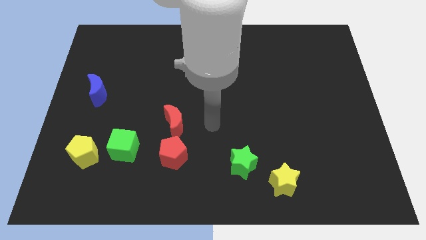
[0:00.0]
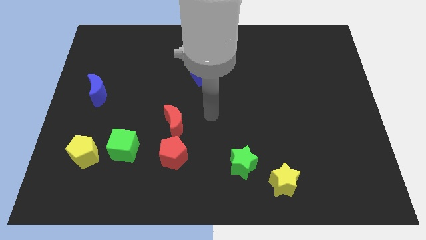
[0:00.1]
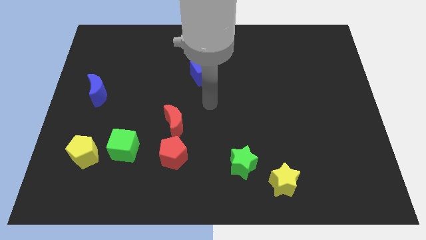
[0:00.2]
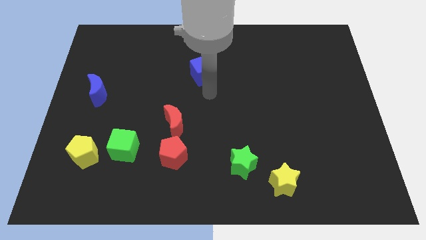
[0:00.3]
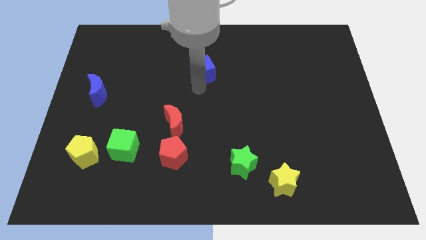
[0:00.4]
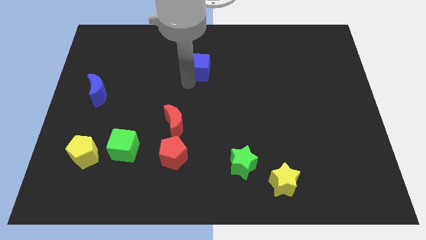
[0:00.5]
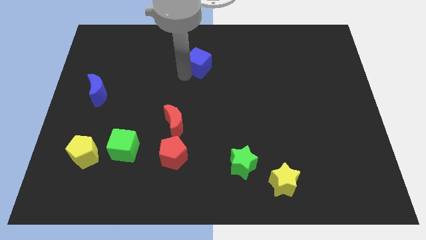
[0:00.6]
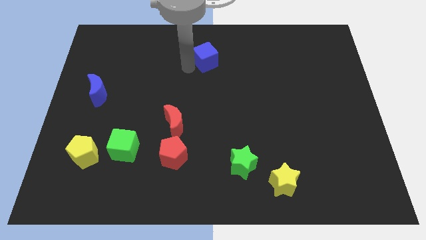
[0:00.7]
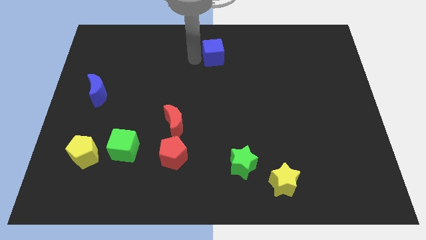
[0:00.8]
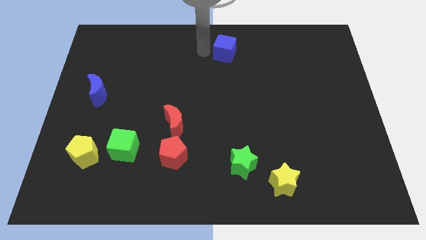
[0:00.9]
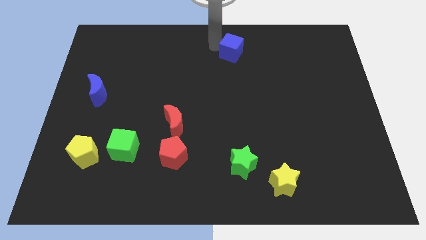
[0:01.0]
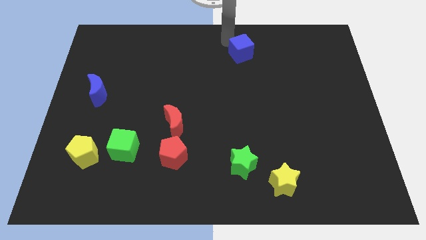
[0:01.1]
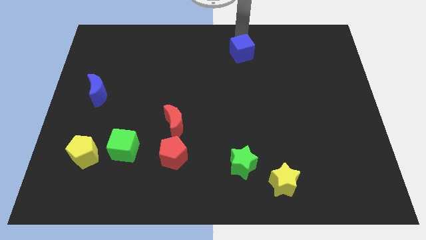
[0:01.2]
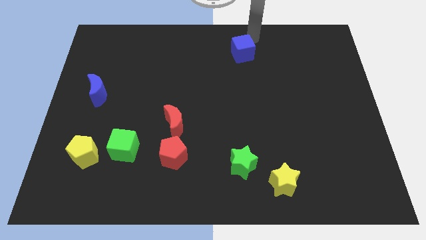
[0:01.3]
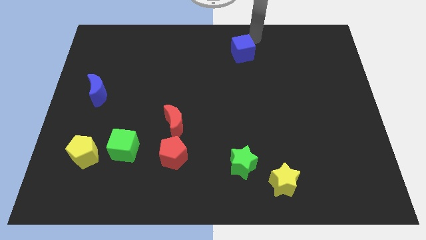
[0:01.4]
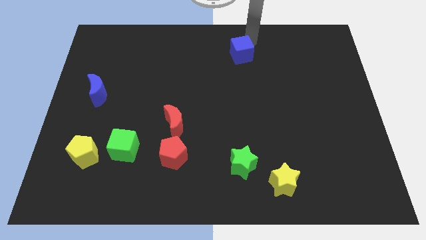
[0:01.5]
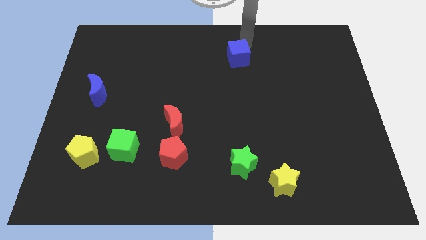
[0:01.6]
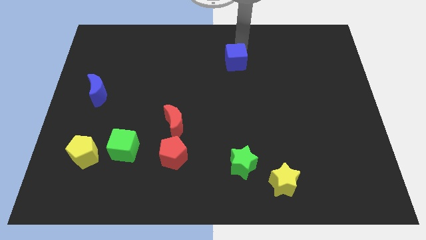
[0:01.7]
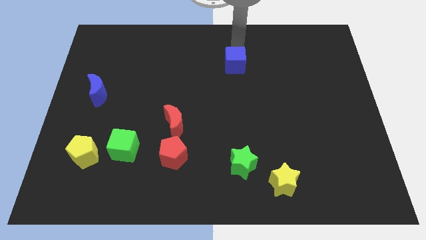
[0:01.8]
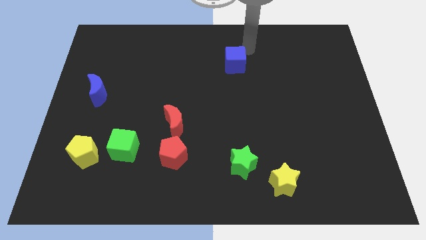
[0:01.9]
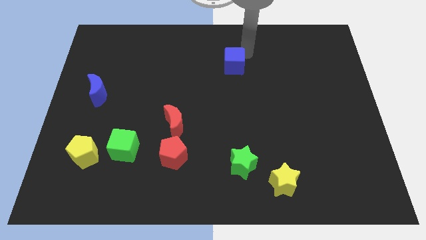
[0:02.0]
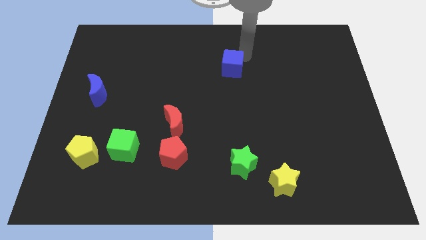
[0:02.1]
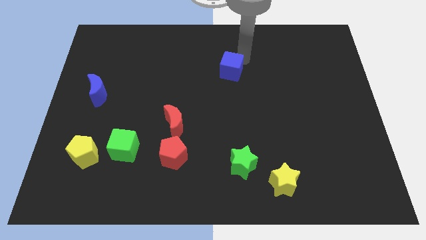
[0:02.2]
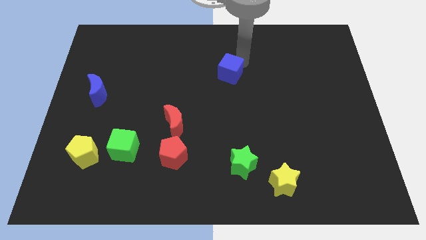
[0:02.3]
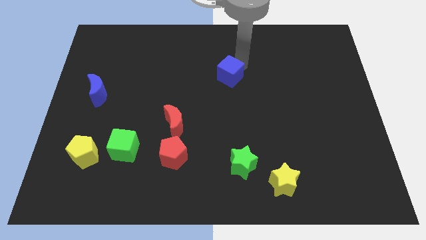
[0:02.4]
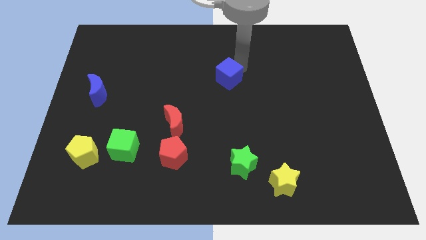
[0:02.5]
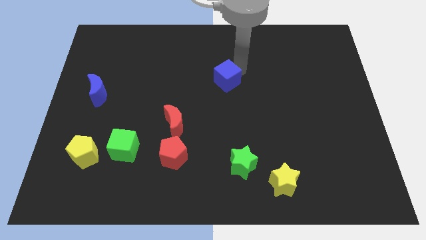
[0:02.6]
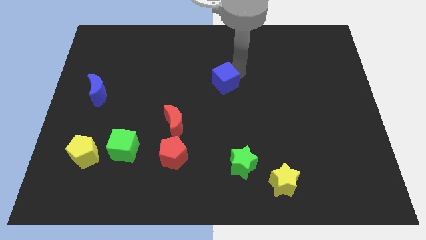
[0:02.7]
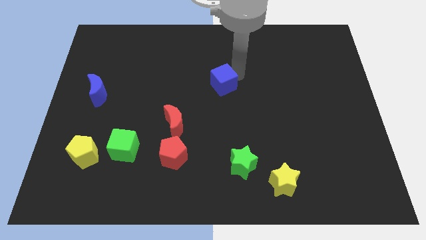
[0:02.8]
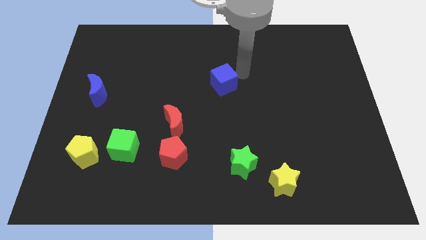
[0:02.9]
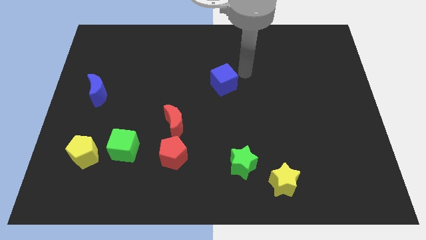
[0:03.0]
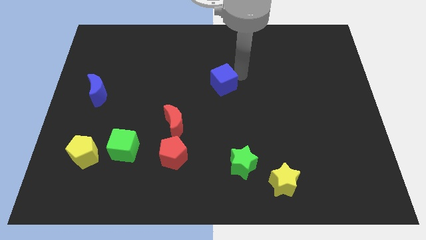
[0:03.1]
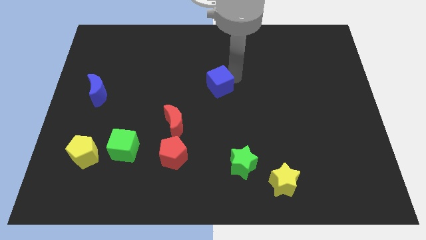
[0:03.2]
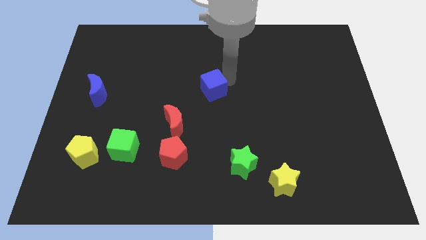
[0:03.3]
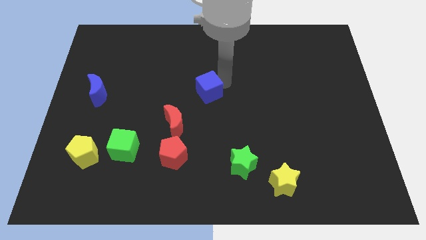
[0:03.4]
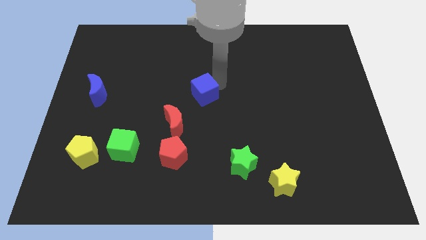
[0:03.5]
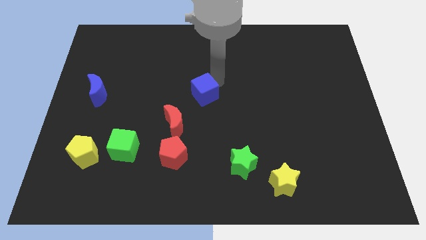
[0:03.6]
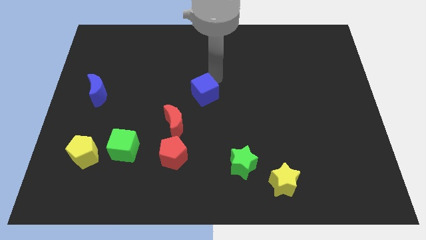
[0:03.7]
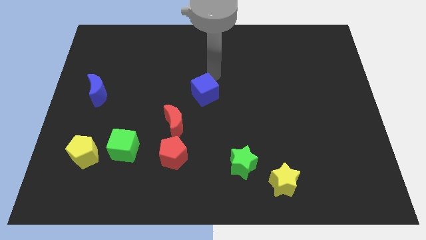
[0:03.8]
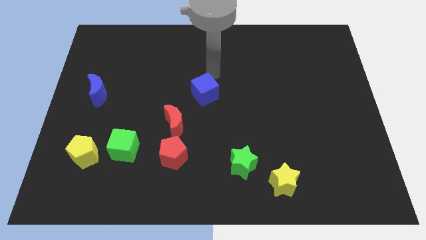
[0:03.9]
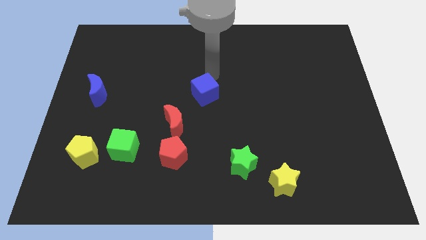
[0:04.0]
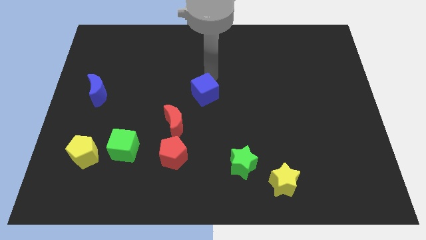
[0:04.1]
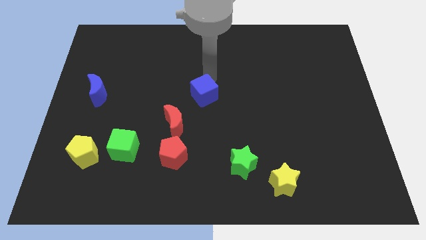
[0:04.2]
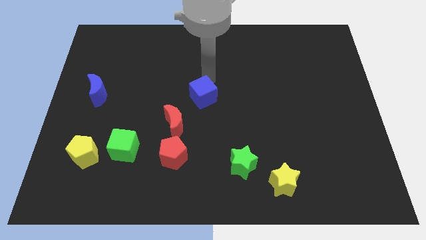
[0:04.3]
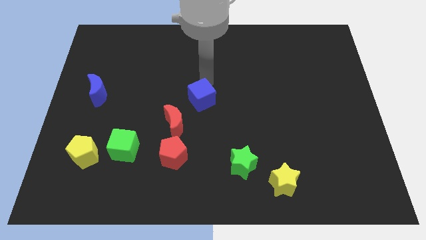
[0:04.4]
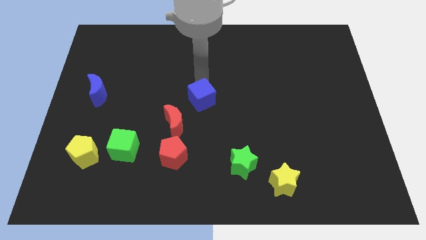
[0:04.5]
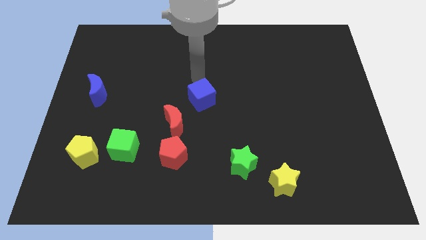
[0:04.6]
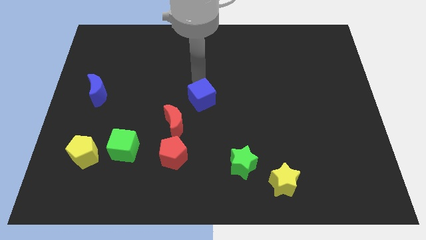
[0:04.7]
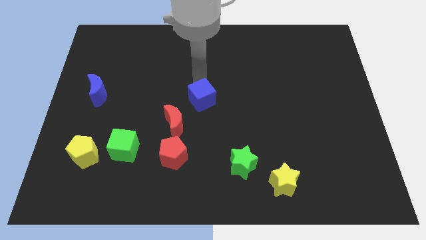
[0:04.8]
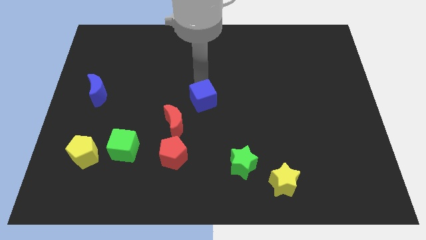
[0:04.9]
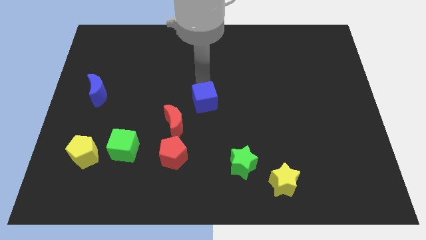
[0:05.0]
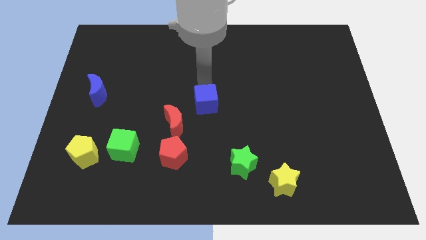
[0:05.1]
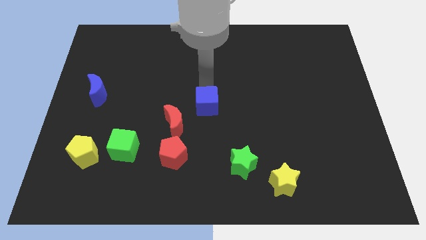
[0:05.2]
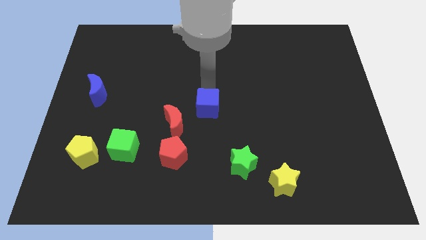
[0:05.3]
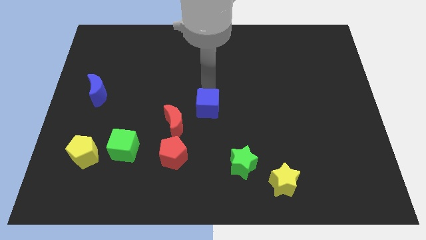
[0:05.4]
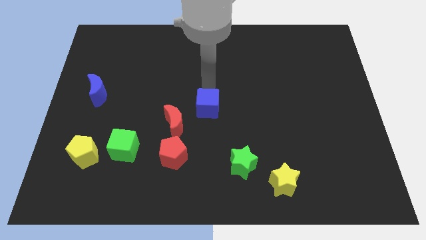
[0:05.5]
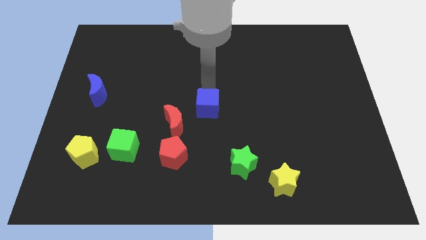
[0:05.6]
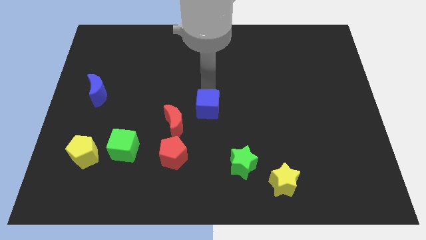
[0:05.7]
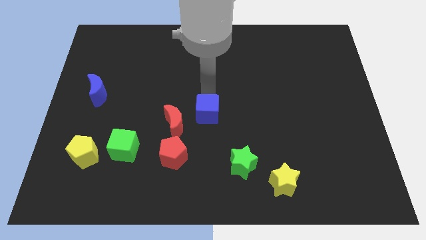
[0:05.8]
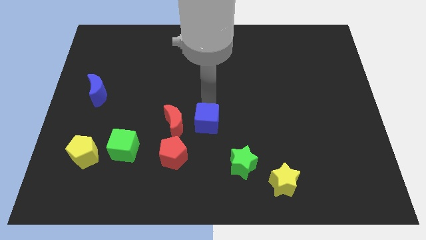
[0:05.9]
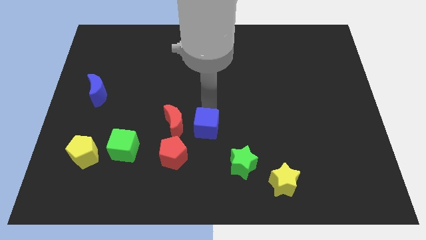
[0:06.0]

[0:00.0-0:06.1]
put the blue cube diagonally down and to the right of the red moon

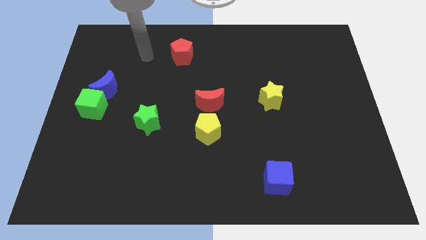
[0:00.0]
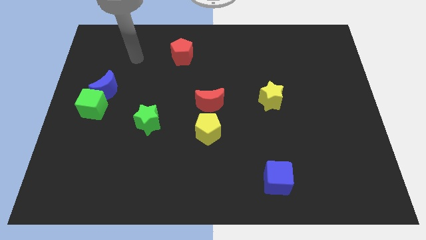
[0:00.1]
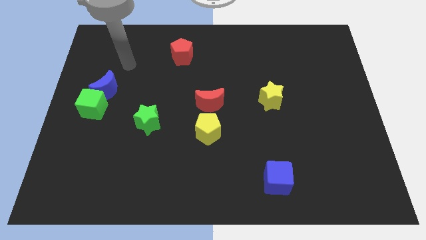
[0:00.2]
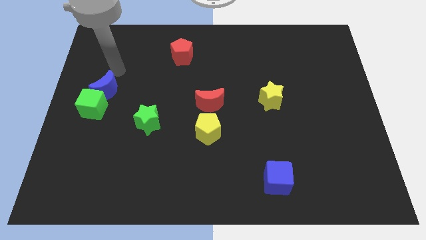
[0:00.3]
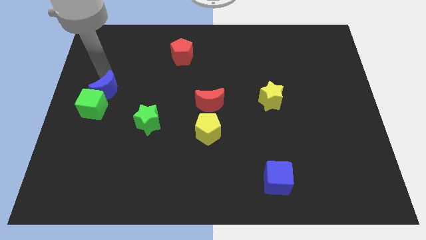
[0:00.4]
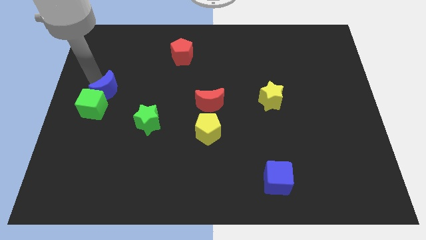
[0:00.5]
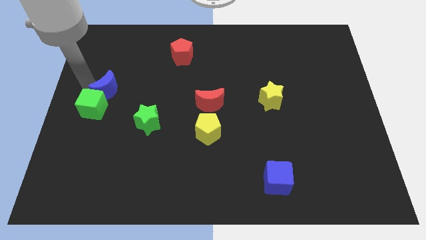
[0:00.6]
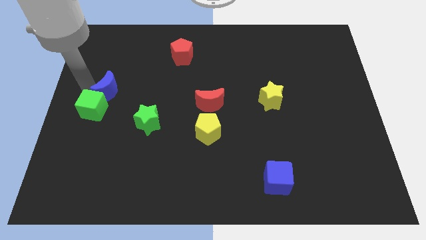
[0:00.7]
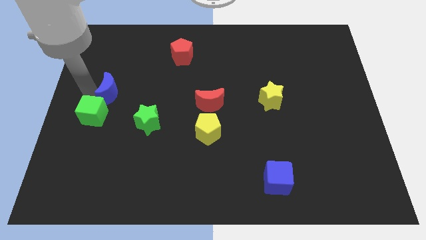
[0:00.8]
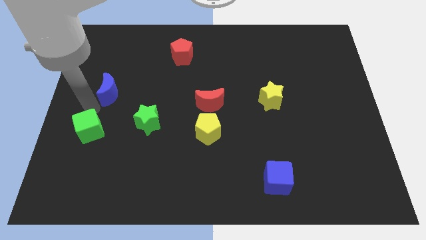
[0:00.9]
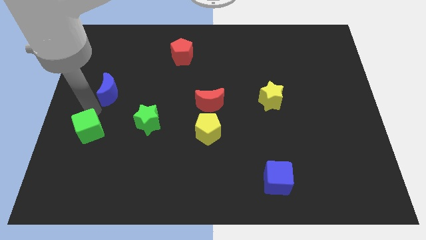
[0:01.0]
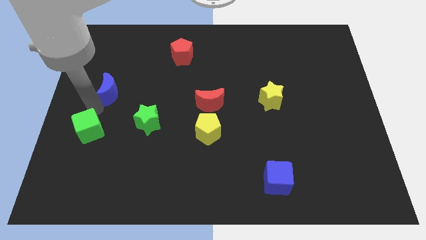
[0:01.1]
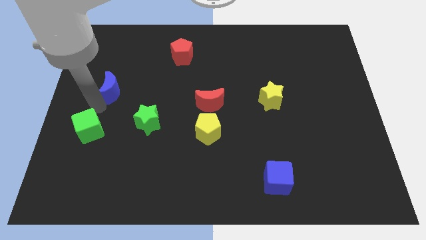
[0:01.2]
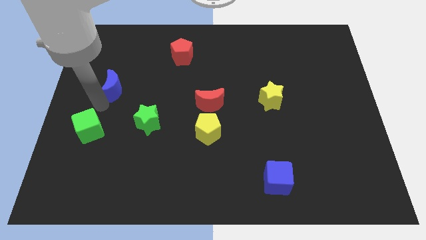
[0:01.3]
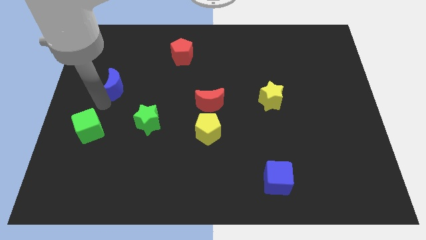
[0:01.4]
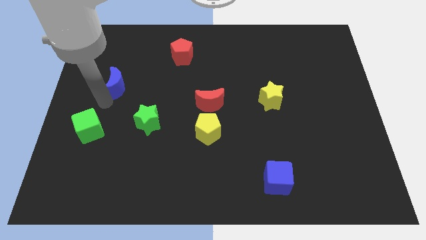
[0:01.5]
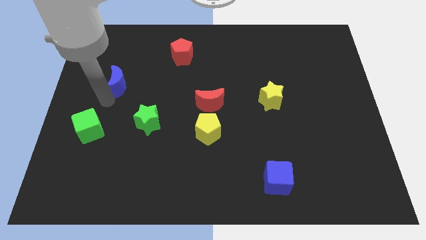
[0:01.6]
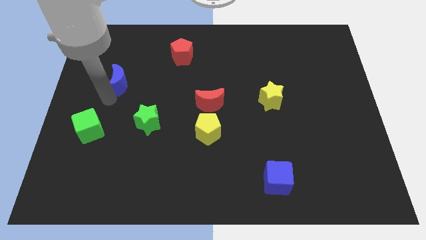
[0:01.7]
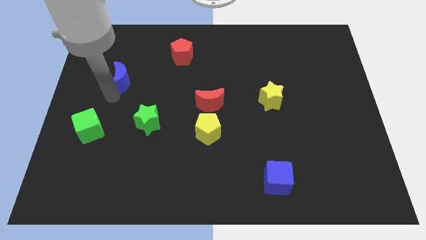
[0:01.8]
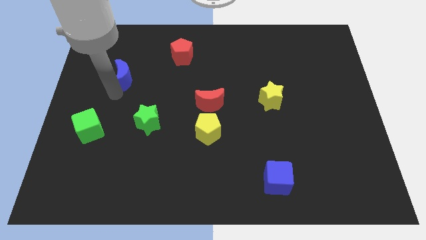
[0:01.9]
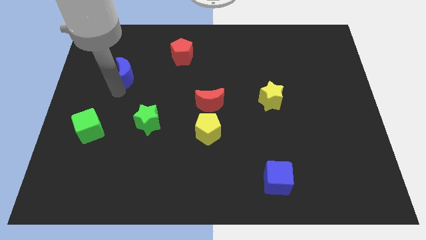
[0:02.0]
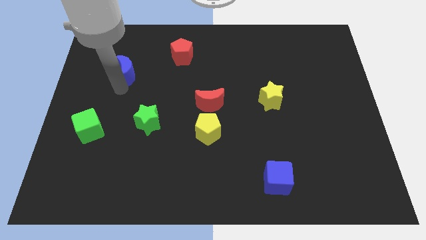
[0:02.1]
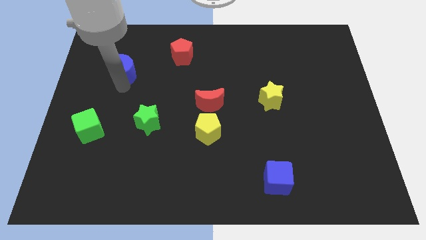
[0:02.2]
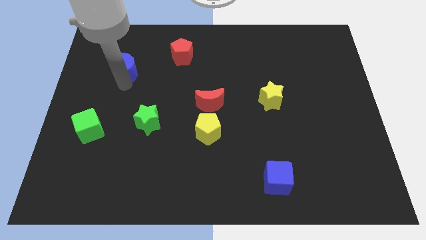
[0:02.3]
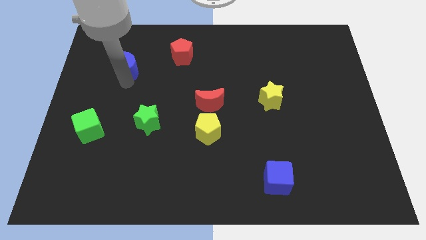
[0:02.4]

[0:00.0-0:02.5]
slide the blue moon left of the red pentagon
